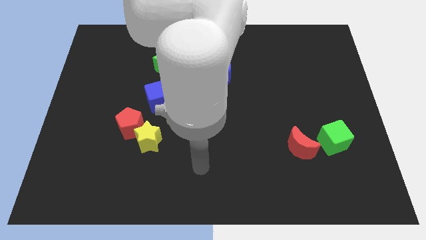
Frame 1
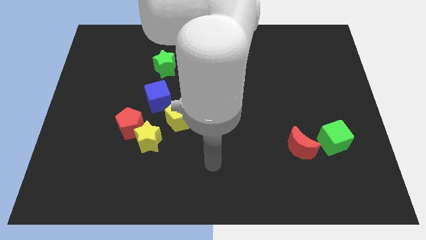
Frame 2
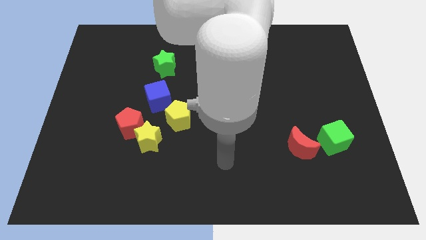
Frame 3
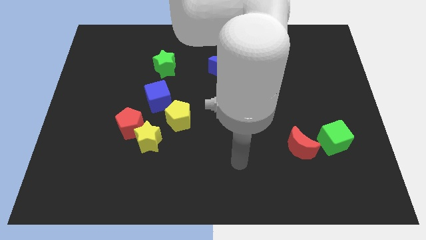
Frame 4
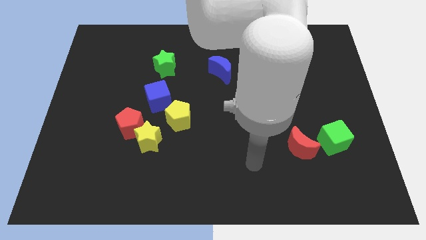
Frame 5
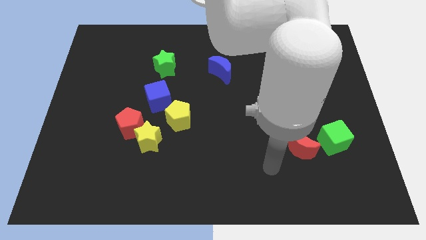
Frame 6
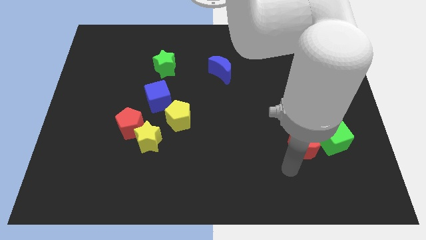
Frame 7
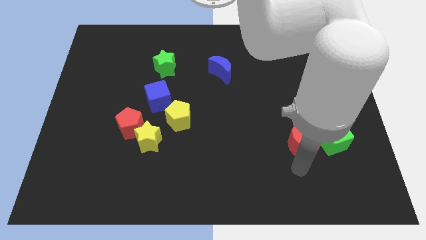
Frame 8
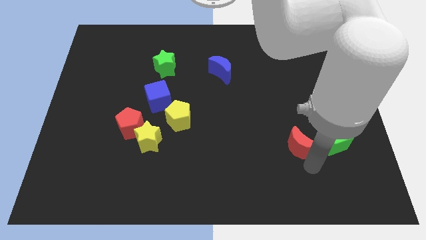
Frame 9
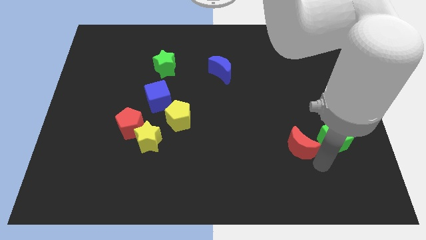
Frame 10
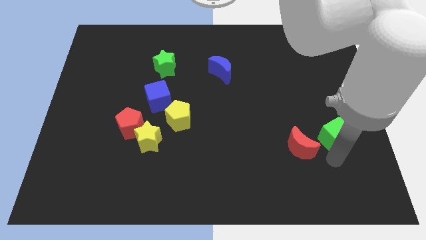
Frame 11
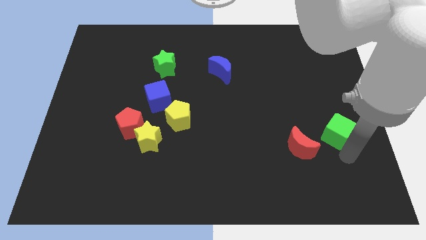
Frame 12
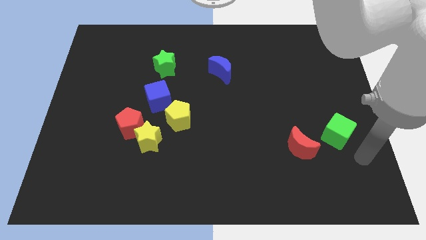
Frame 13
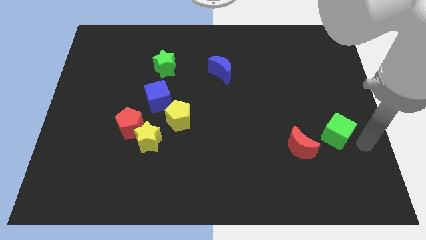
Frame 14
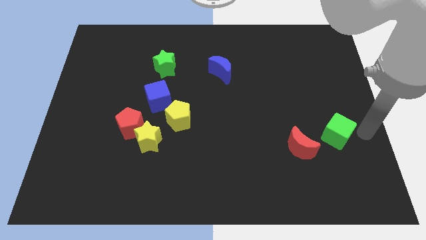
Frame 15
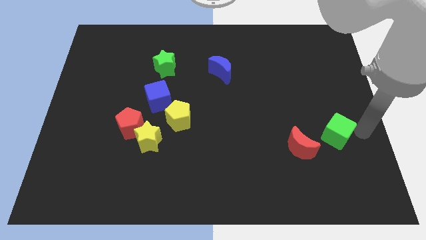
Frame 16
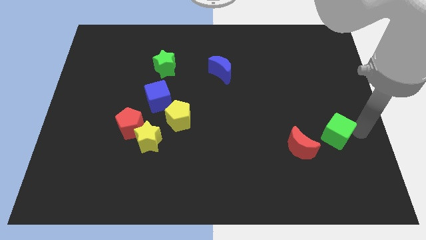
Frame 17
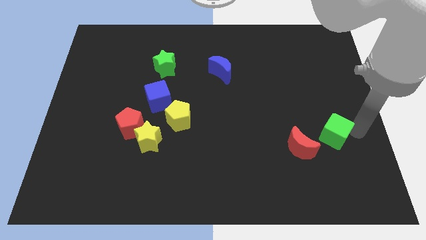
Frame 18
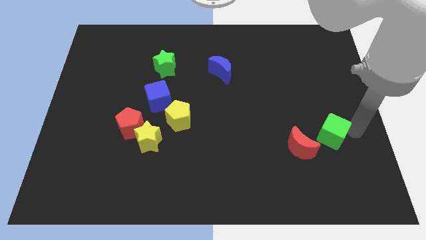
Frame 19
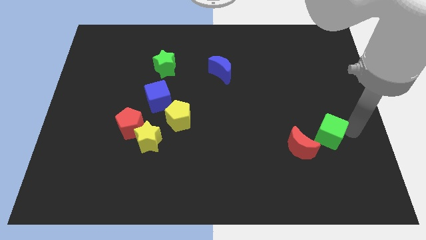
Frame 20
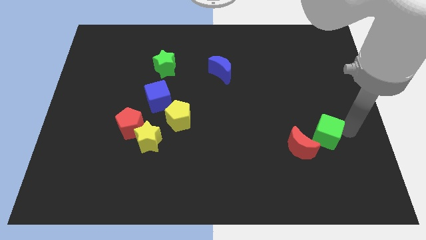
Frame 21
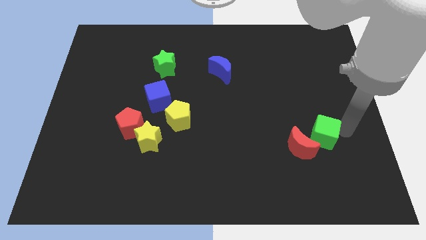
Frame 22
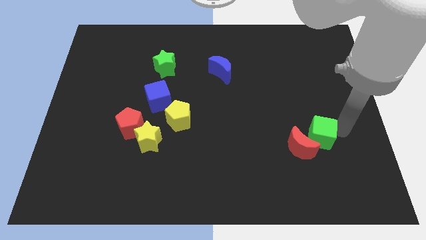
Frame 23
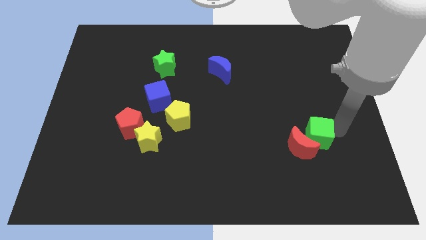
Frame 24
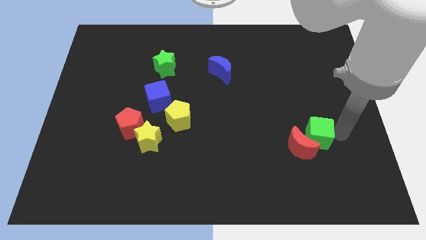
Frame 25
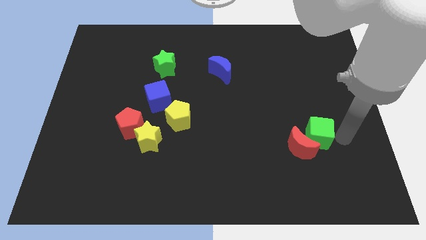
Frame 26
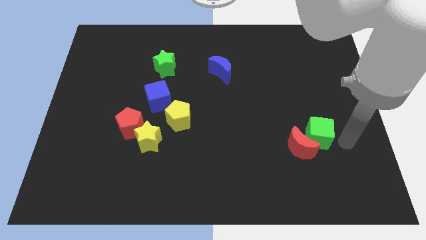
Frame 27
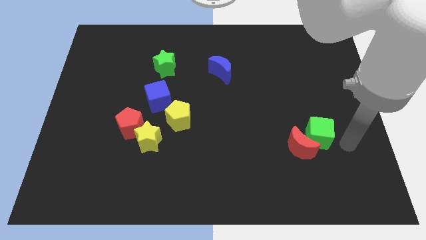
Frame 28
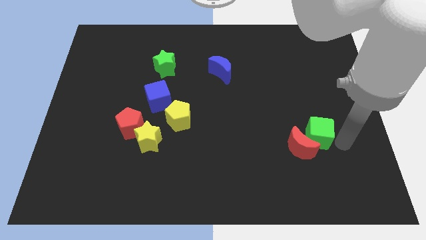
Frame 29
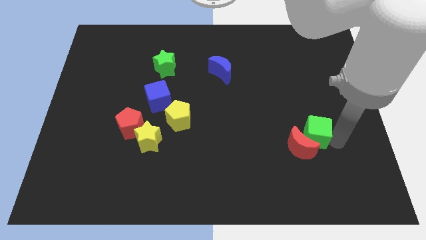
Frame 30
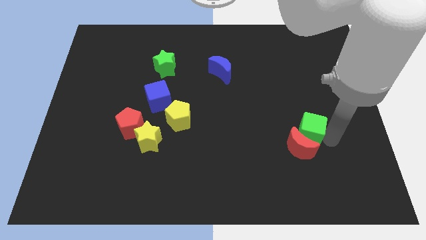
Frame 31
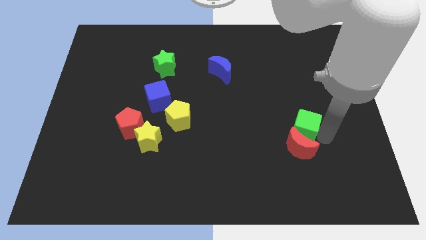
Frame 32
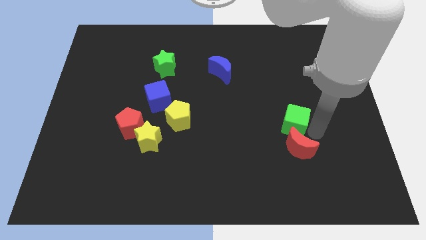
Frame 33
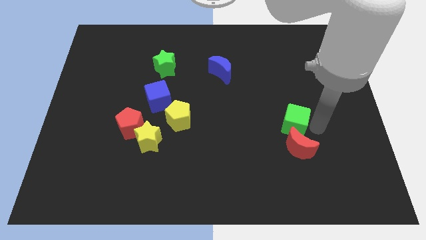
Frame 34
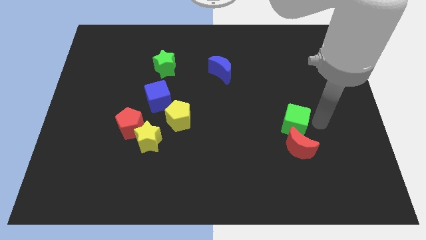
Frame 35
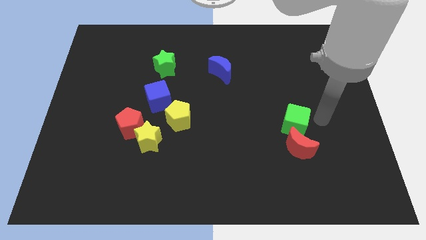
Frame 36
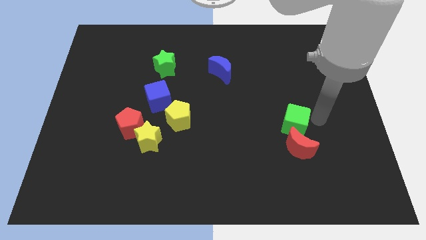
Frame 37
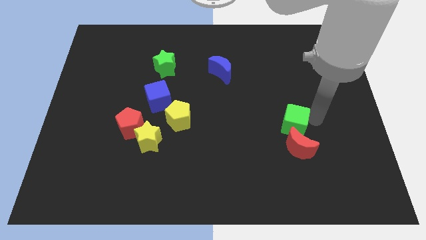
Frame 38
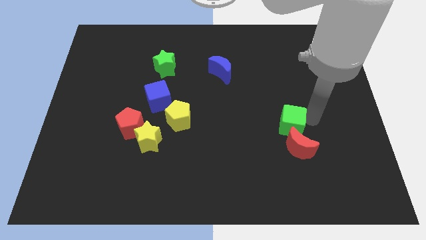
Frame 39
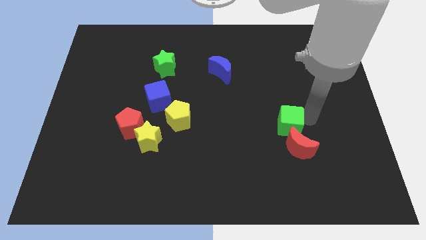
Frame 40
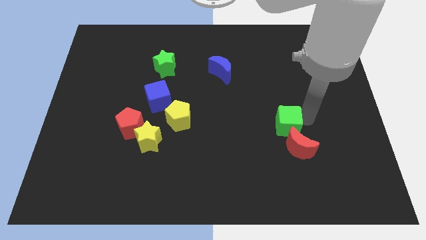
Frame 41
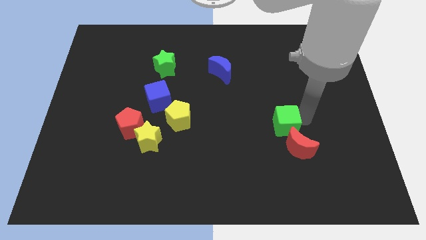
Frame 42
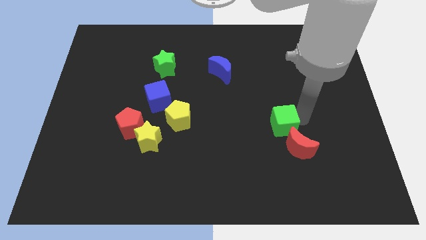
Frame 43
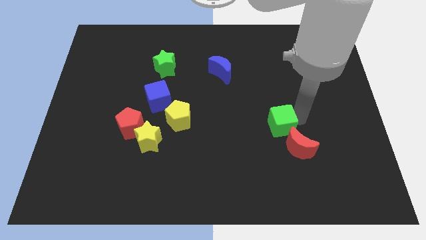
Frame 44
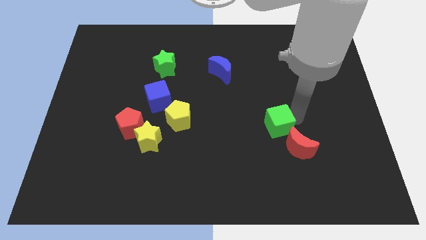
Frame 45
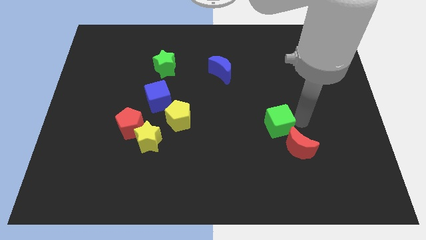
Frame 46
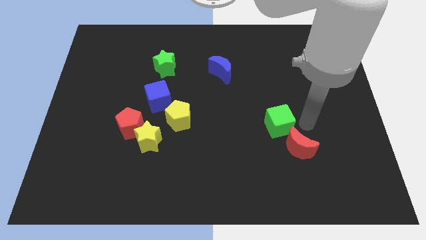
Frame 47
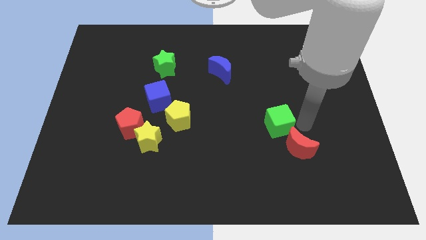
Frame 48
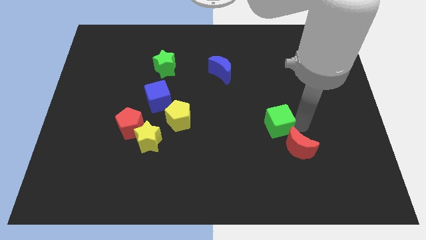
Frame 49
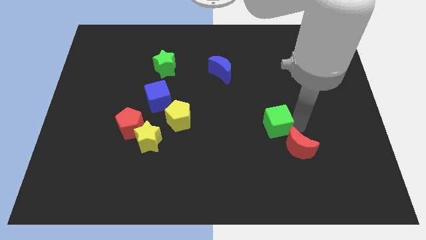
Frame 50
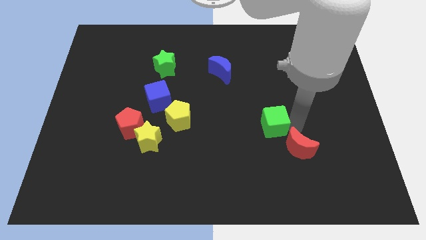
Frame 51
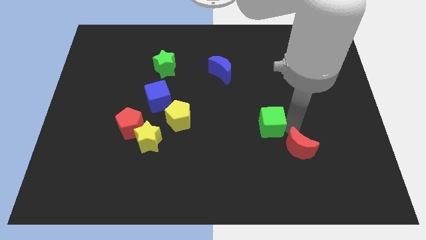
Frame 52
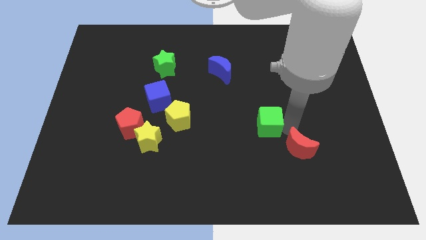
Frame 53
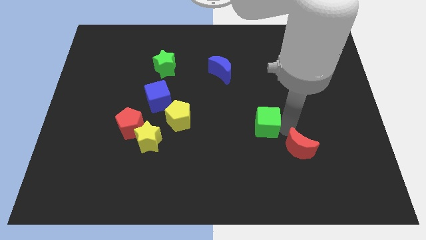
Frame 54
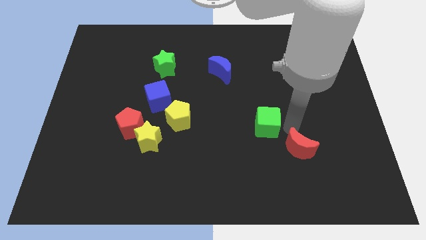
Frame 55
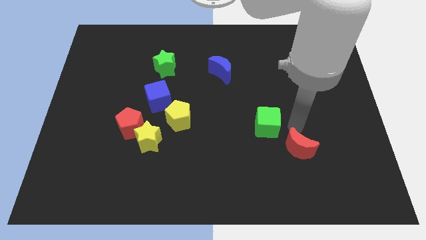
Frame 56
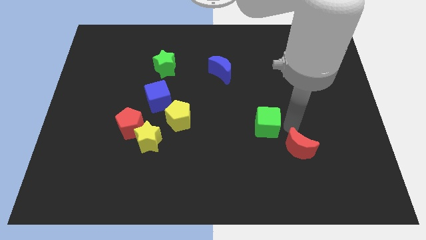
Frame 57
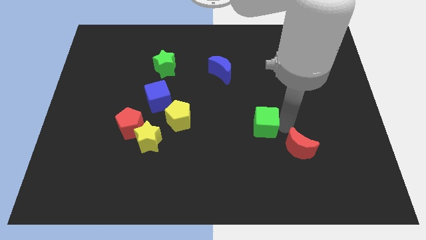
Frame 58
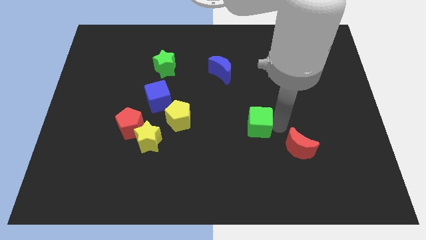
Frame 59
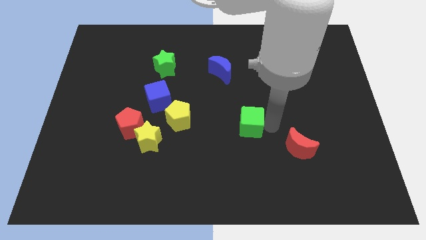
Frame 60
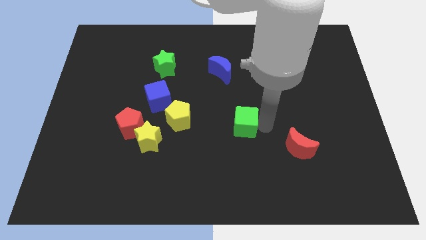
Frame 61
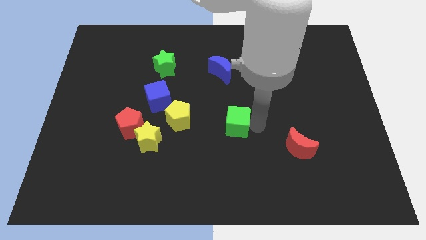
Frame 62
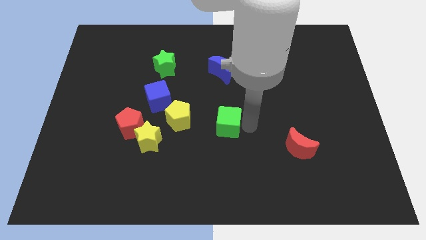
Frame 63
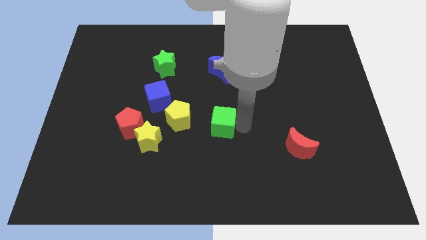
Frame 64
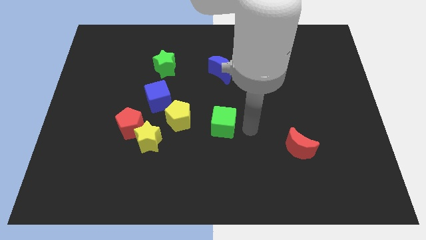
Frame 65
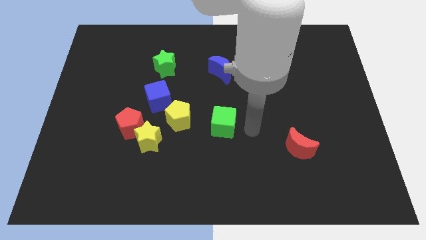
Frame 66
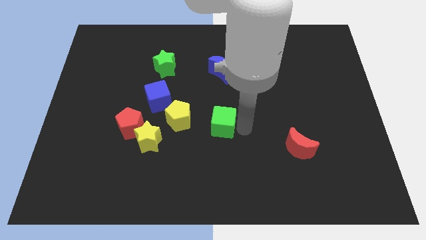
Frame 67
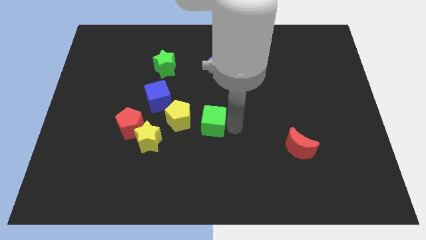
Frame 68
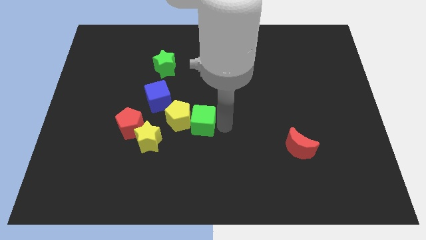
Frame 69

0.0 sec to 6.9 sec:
slide the green cube towards the yellow pentagon
